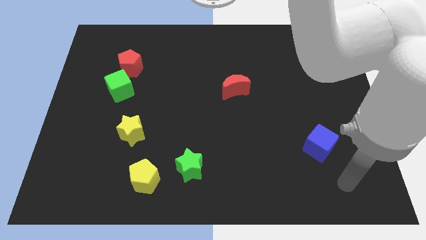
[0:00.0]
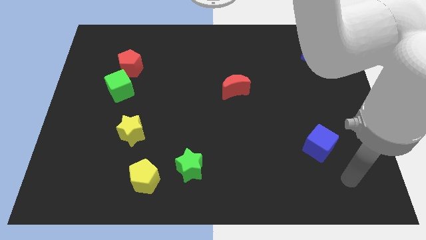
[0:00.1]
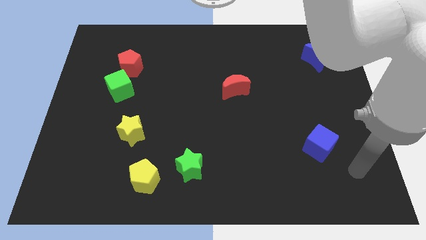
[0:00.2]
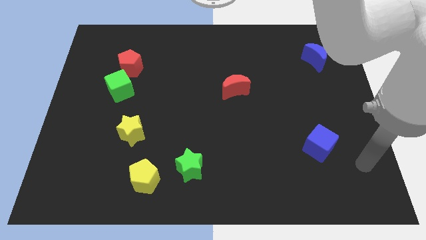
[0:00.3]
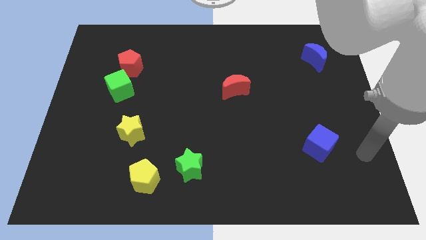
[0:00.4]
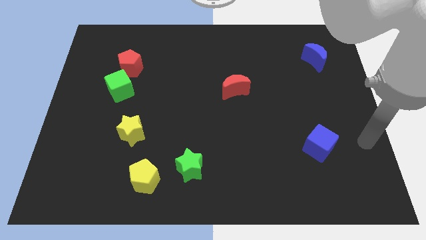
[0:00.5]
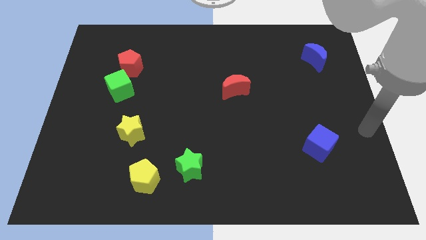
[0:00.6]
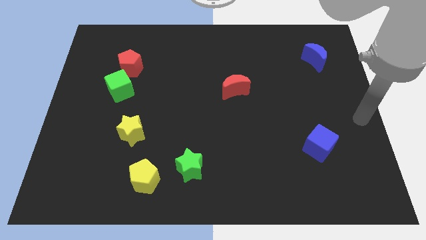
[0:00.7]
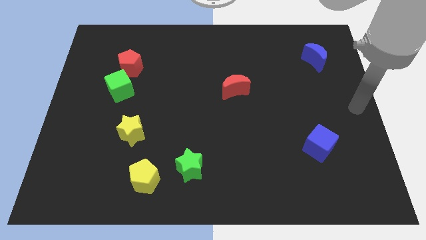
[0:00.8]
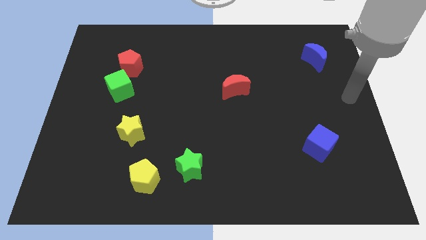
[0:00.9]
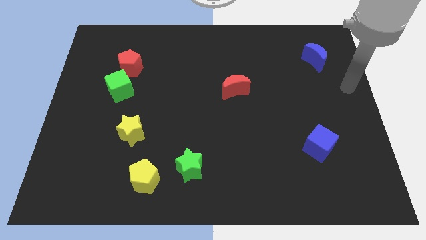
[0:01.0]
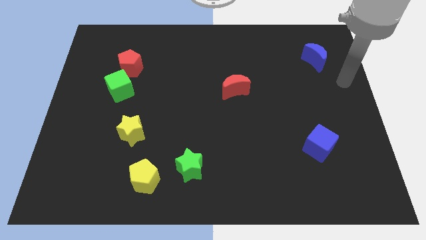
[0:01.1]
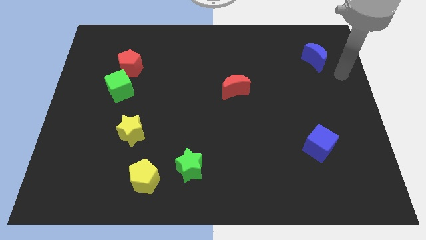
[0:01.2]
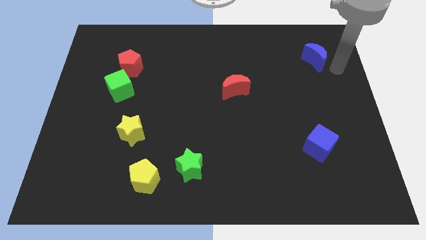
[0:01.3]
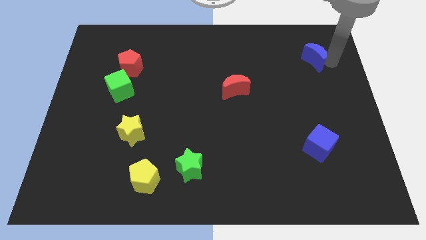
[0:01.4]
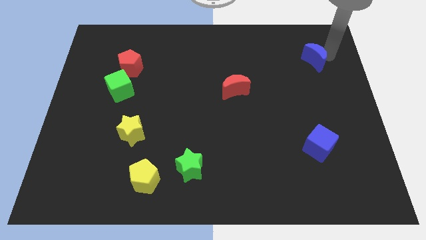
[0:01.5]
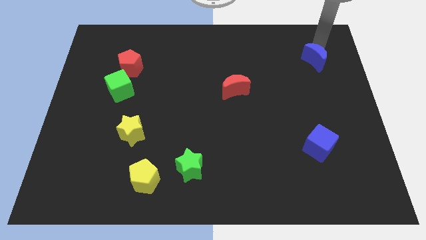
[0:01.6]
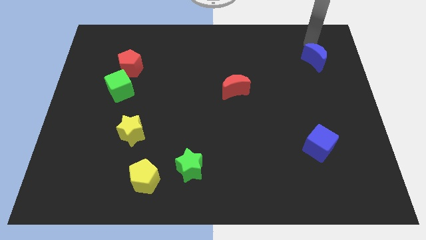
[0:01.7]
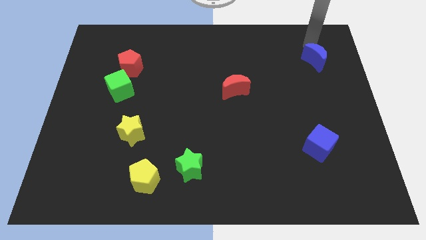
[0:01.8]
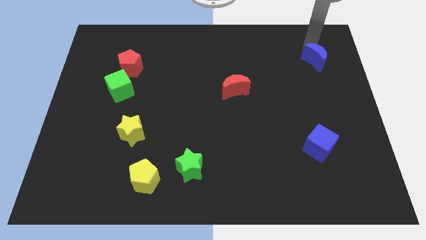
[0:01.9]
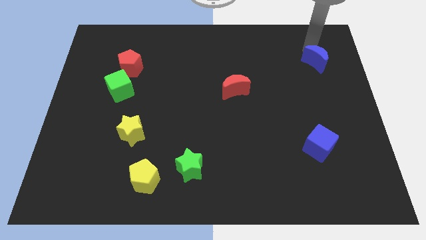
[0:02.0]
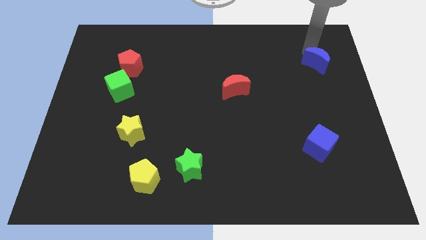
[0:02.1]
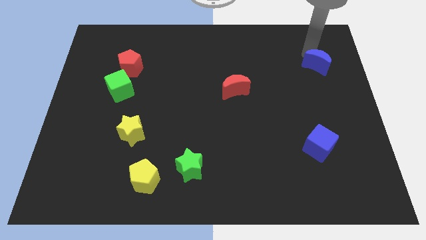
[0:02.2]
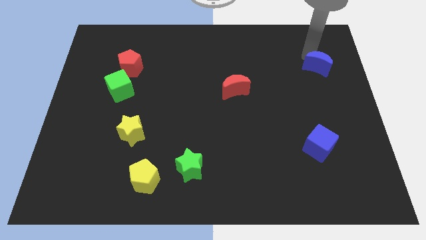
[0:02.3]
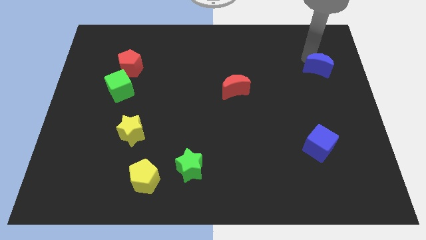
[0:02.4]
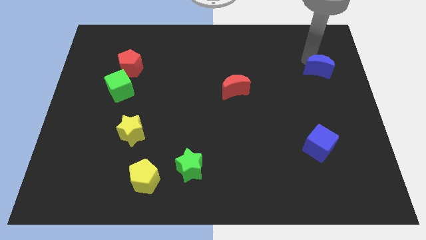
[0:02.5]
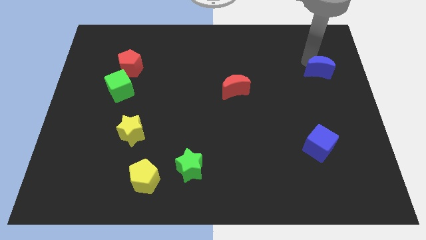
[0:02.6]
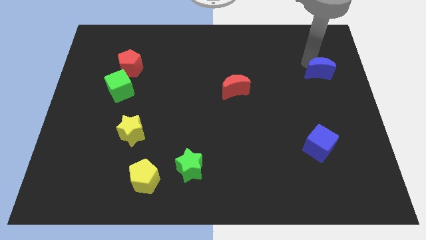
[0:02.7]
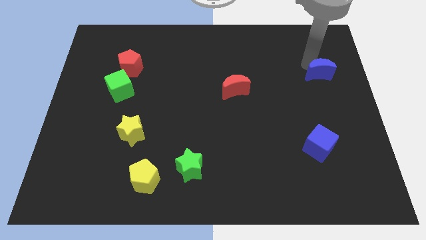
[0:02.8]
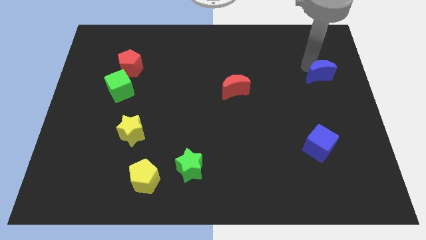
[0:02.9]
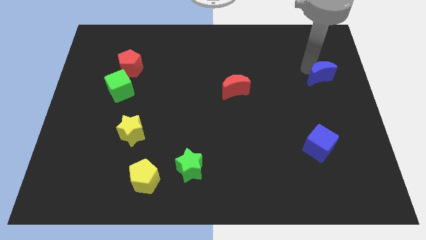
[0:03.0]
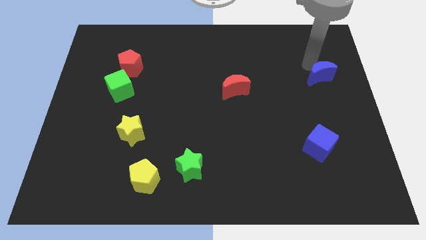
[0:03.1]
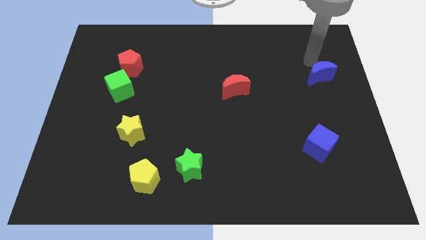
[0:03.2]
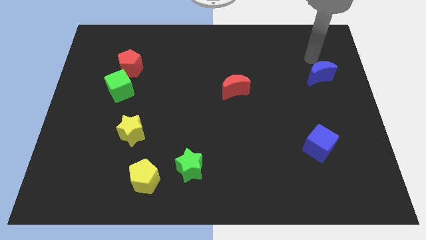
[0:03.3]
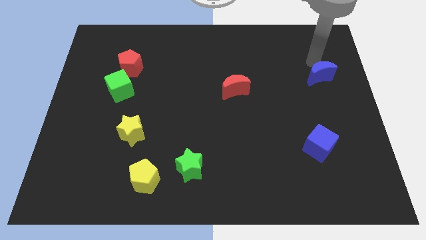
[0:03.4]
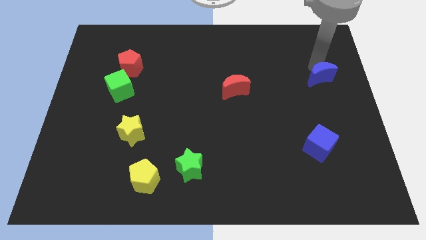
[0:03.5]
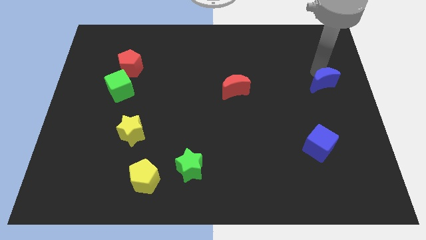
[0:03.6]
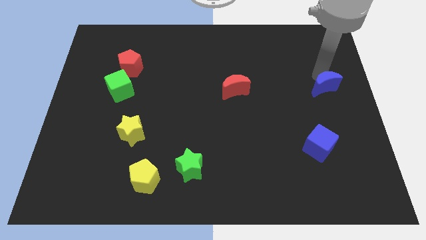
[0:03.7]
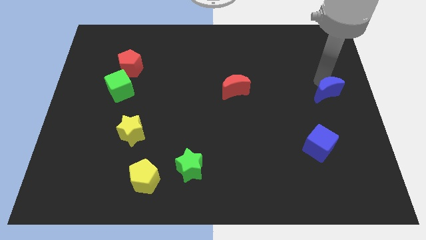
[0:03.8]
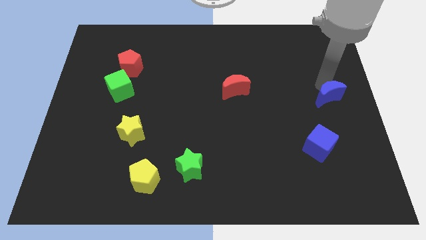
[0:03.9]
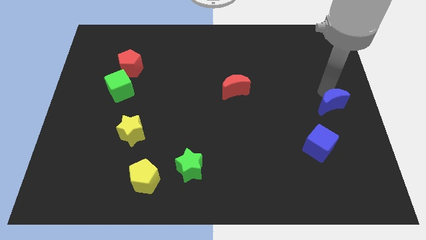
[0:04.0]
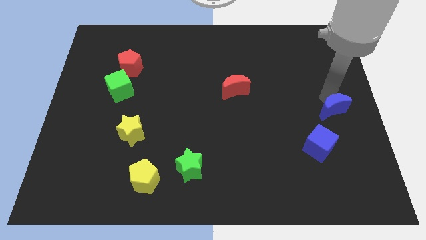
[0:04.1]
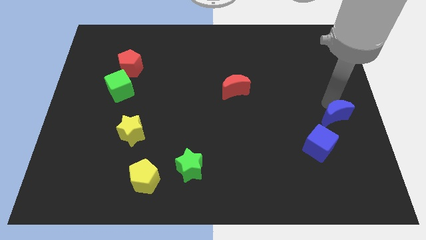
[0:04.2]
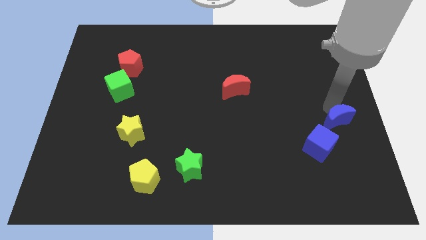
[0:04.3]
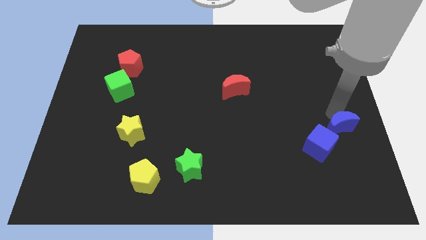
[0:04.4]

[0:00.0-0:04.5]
move the blue moon down

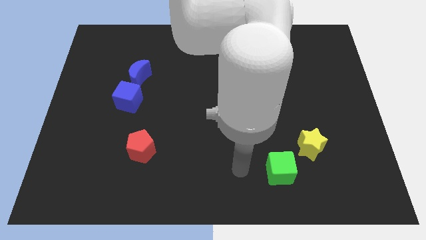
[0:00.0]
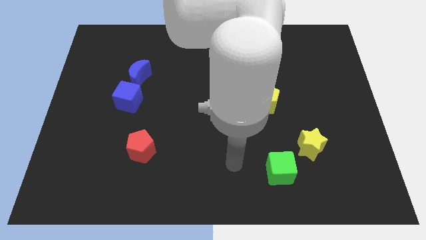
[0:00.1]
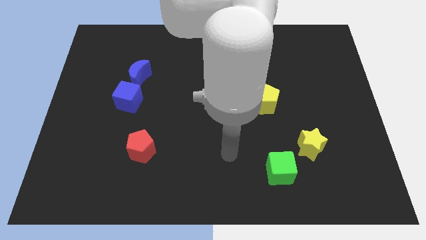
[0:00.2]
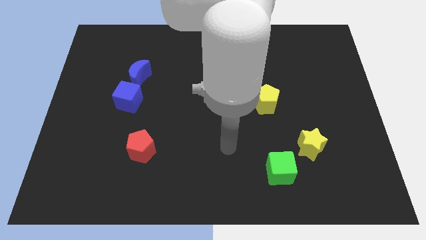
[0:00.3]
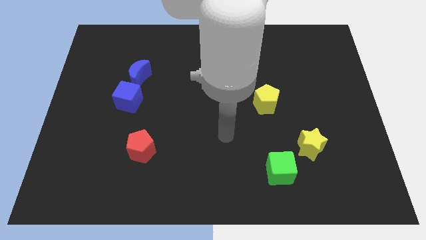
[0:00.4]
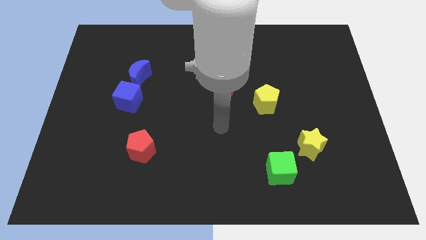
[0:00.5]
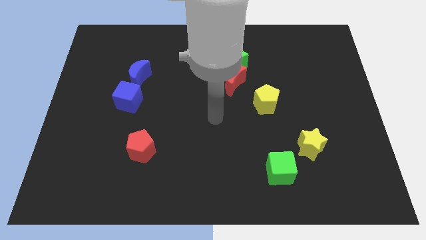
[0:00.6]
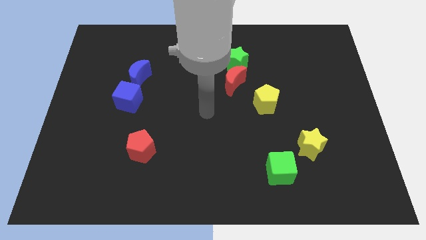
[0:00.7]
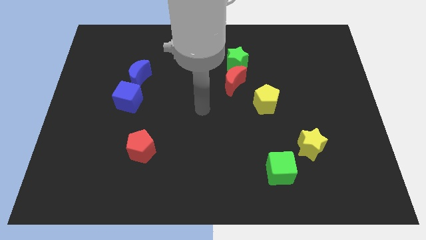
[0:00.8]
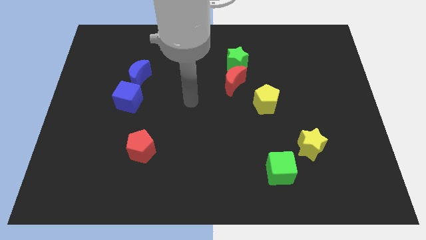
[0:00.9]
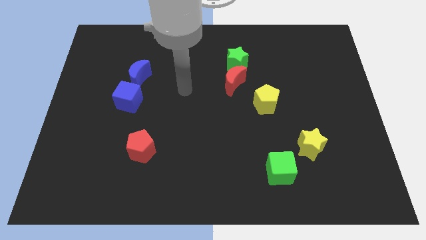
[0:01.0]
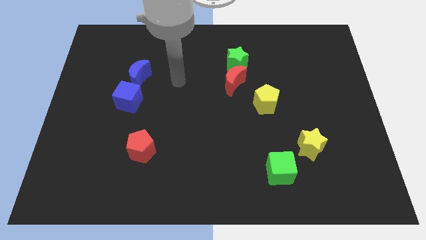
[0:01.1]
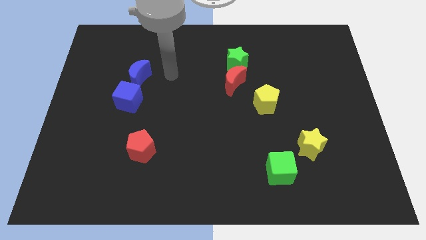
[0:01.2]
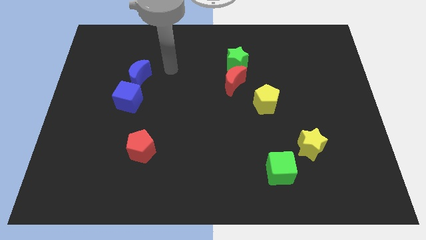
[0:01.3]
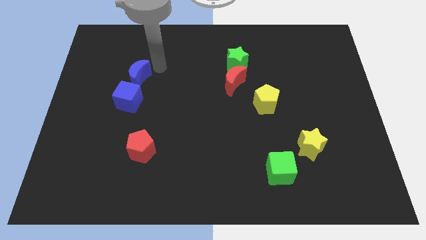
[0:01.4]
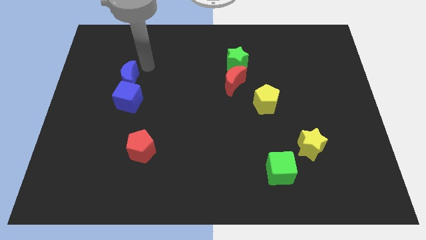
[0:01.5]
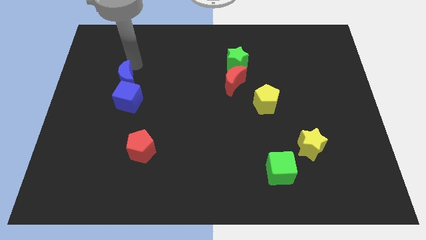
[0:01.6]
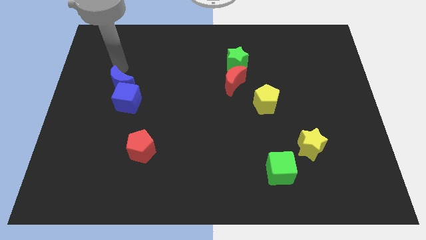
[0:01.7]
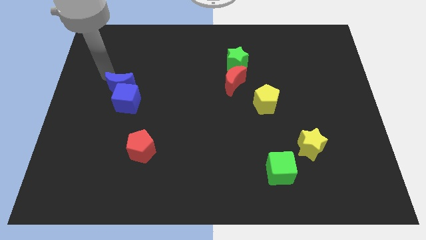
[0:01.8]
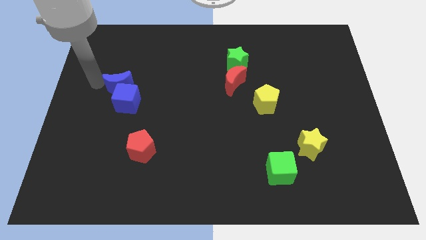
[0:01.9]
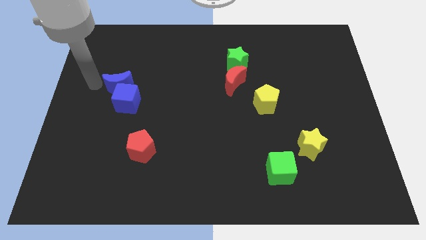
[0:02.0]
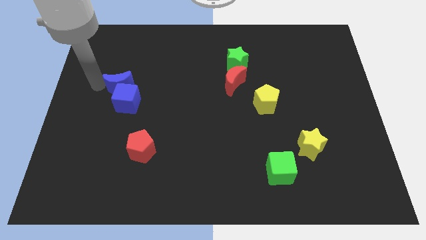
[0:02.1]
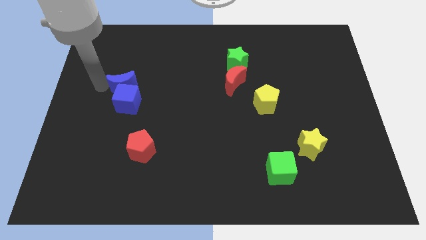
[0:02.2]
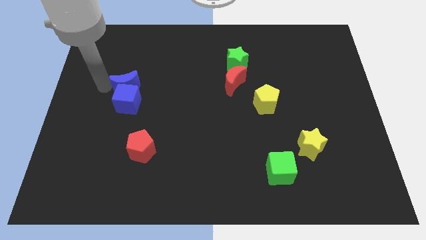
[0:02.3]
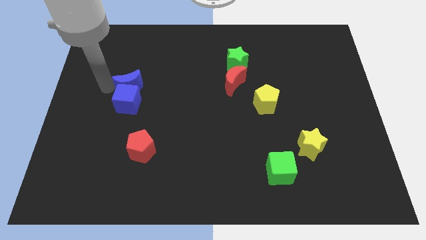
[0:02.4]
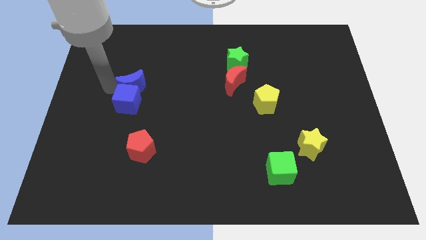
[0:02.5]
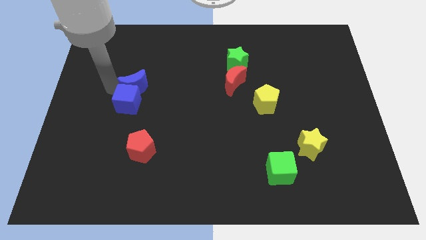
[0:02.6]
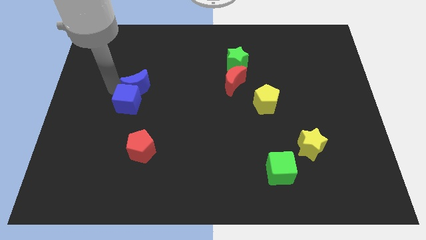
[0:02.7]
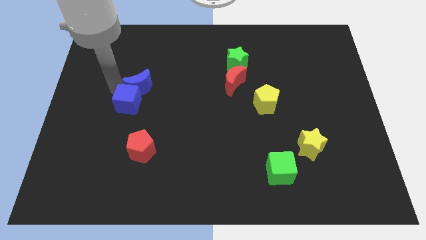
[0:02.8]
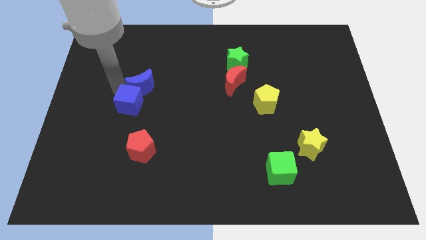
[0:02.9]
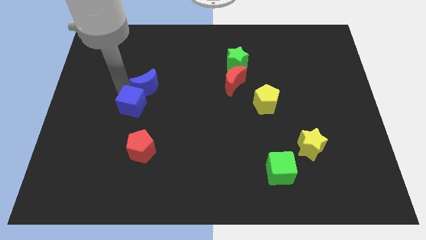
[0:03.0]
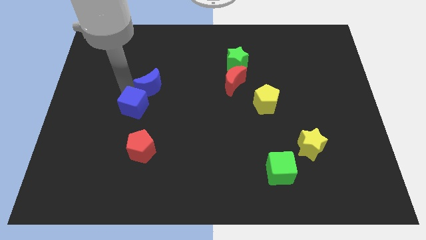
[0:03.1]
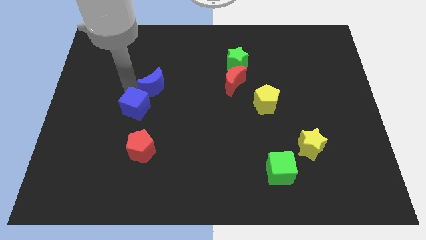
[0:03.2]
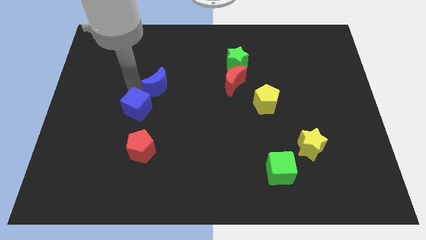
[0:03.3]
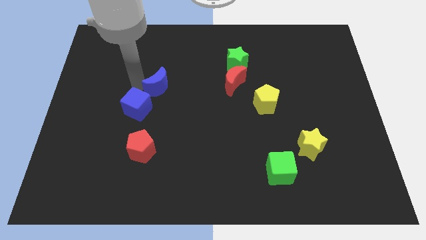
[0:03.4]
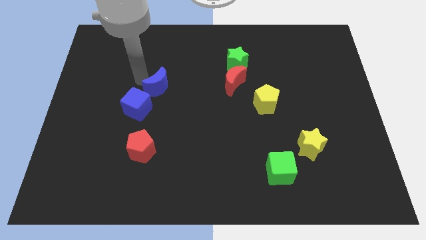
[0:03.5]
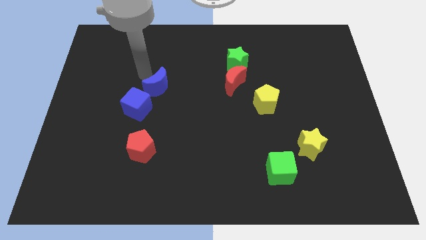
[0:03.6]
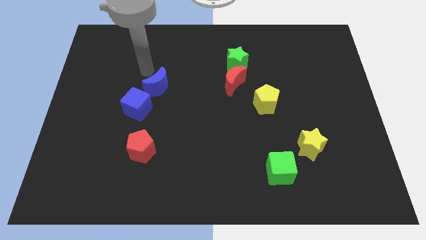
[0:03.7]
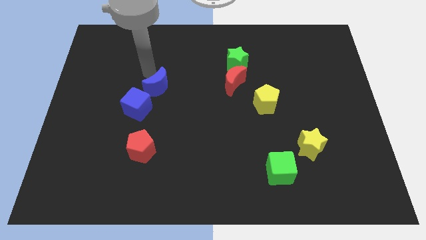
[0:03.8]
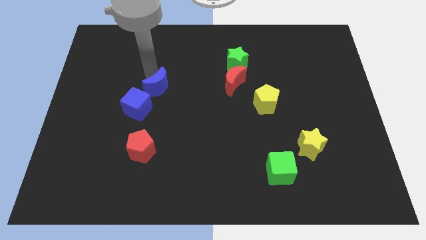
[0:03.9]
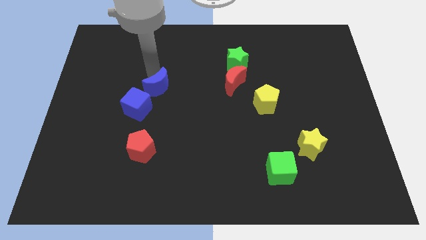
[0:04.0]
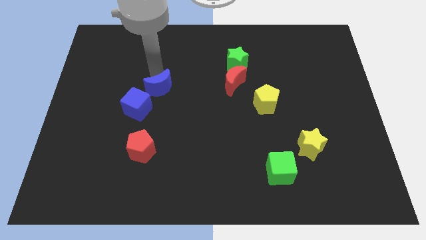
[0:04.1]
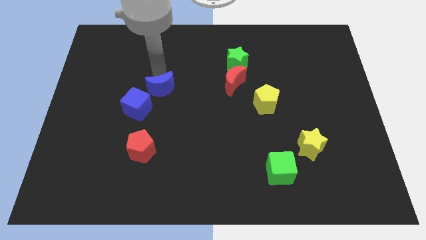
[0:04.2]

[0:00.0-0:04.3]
slide the blue moon downwards and then right a bit
